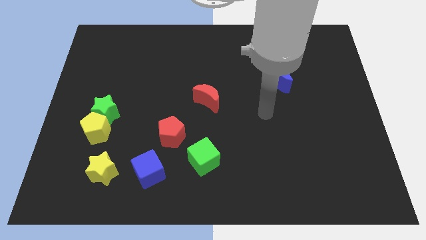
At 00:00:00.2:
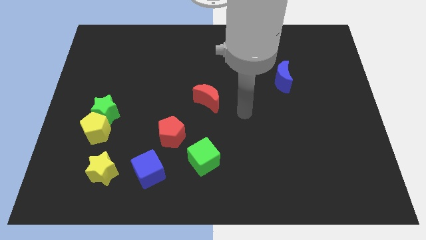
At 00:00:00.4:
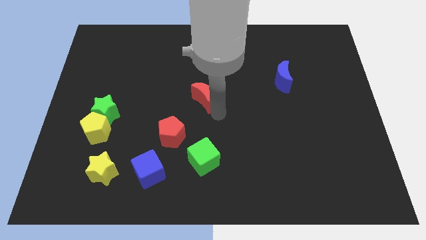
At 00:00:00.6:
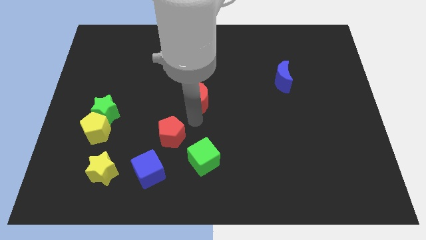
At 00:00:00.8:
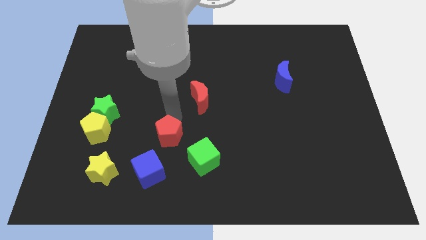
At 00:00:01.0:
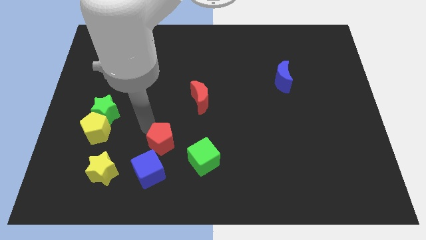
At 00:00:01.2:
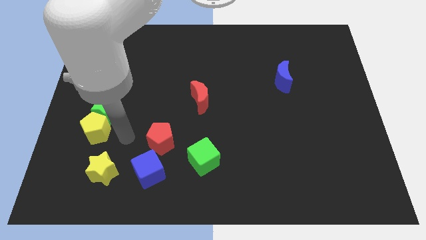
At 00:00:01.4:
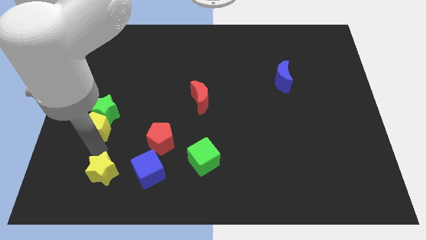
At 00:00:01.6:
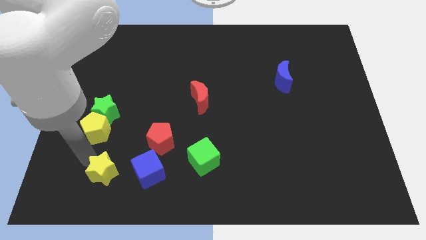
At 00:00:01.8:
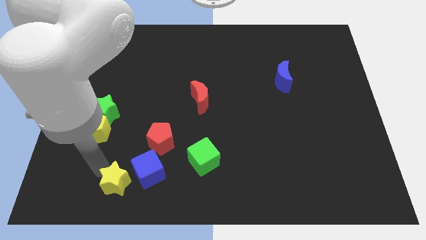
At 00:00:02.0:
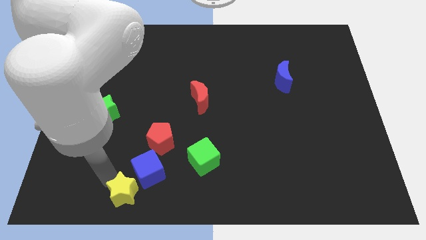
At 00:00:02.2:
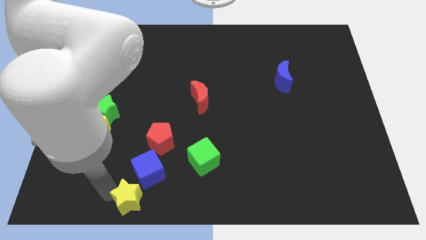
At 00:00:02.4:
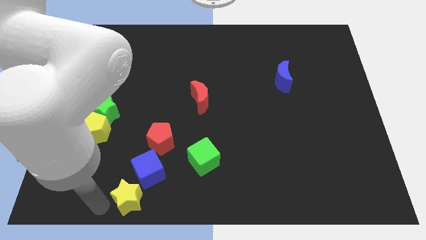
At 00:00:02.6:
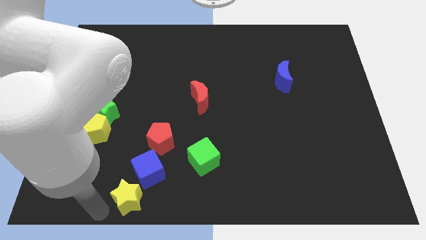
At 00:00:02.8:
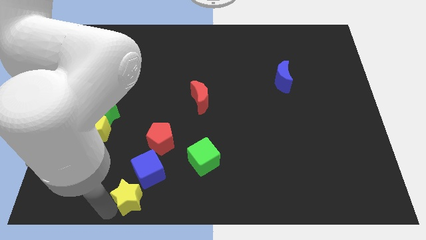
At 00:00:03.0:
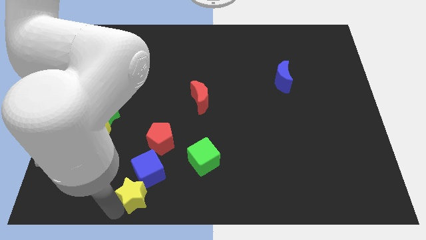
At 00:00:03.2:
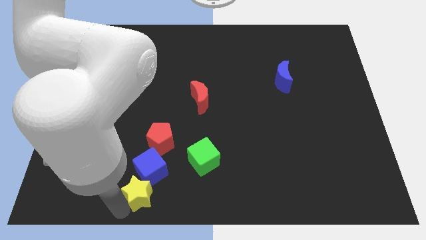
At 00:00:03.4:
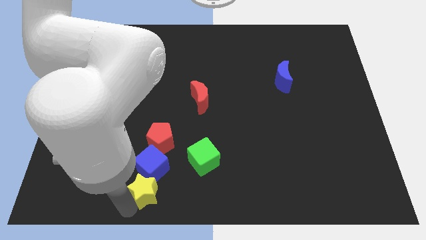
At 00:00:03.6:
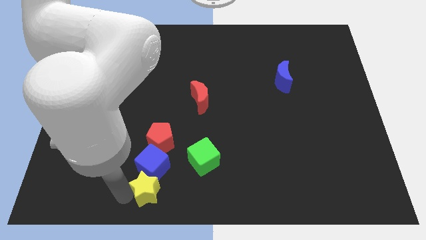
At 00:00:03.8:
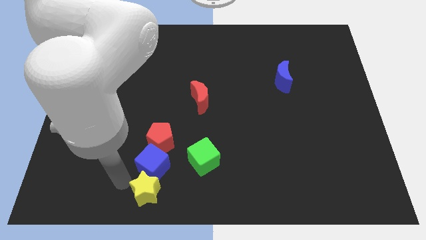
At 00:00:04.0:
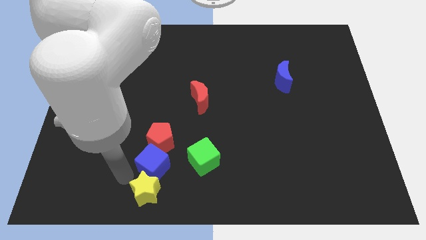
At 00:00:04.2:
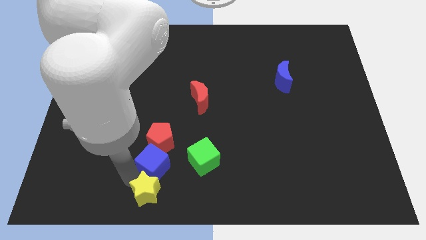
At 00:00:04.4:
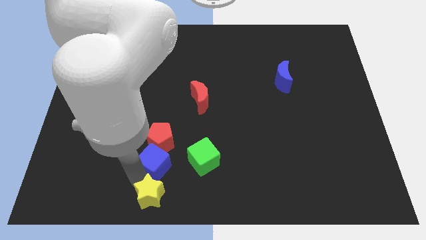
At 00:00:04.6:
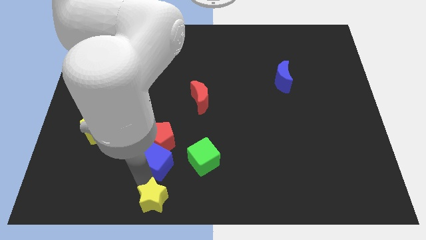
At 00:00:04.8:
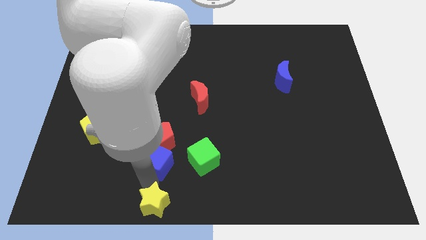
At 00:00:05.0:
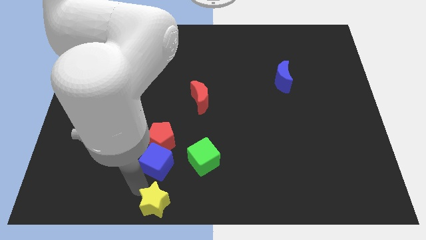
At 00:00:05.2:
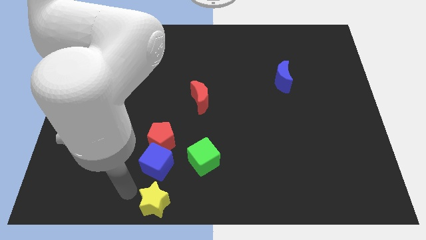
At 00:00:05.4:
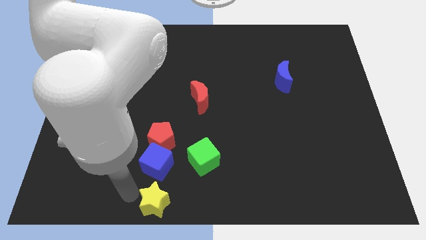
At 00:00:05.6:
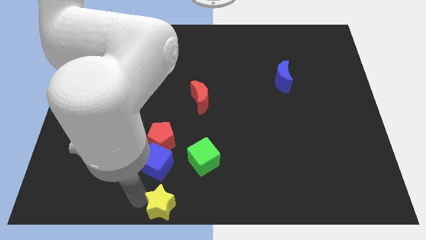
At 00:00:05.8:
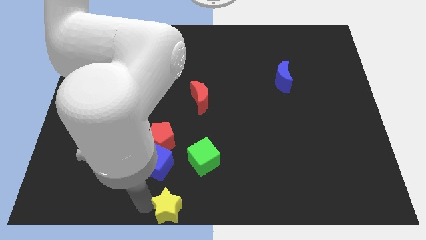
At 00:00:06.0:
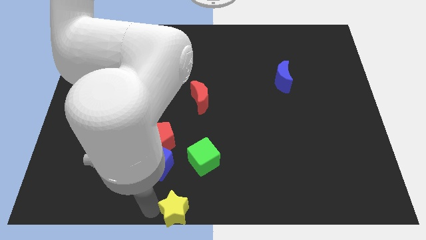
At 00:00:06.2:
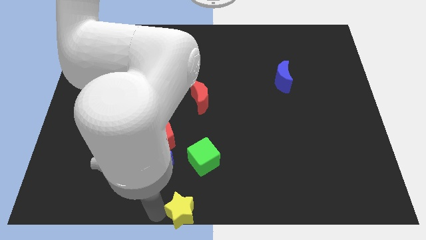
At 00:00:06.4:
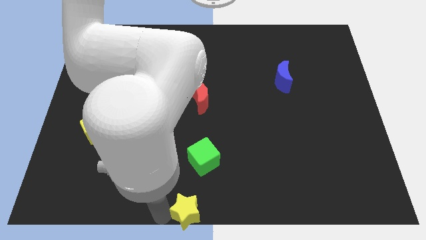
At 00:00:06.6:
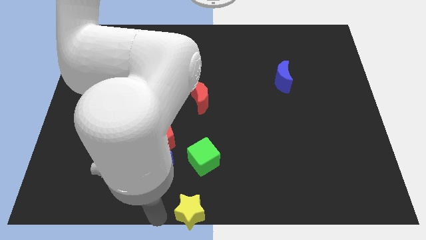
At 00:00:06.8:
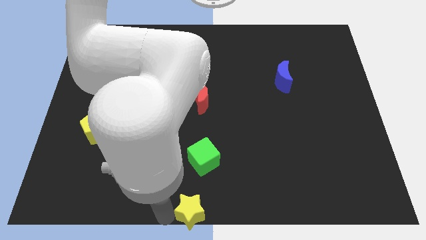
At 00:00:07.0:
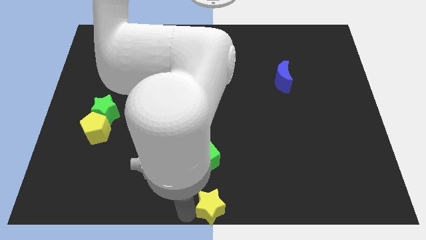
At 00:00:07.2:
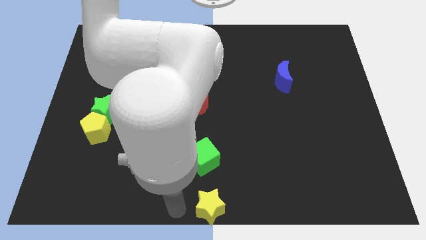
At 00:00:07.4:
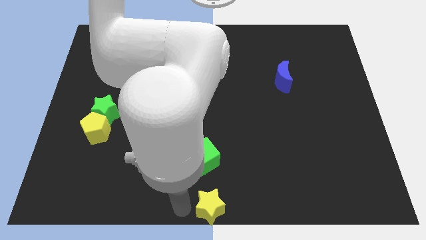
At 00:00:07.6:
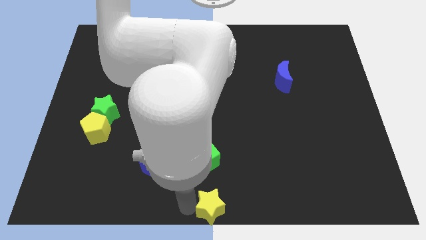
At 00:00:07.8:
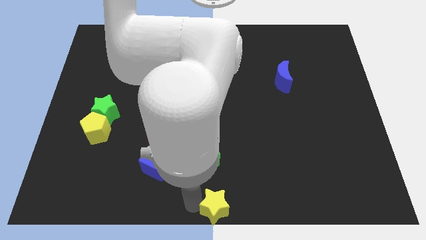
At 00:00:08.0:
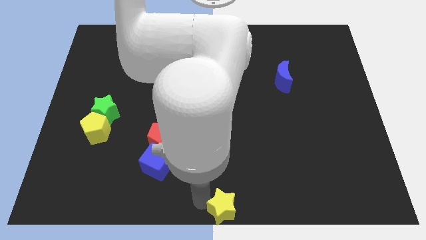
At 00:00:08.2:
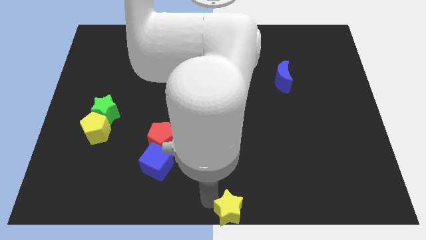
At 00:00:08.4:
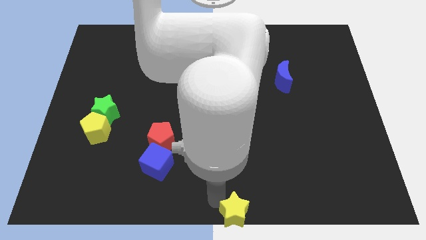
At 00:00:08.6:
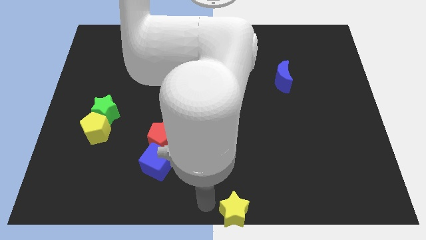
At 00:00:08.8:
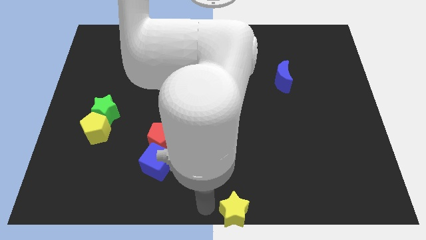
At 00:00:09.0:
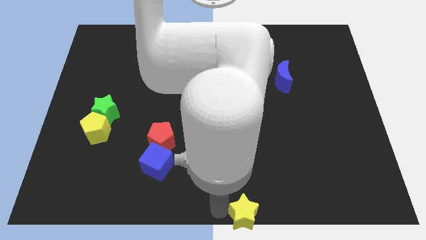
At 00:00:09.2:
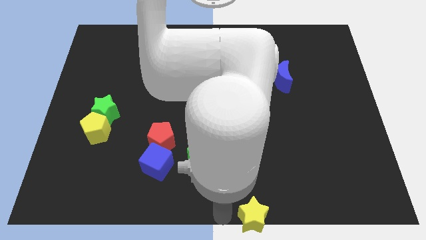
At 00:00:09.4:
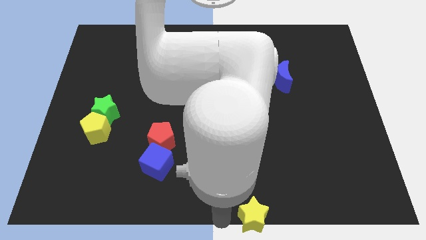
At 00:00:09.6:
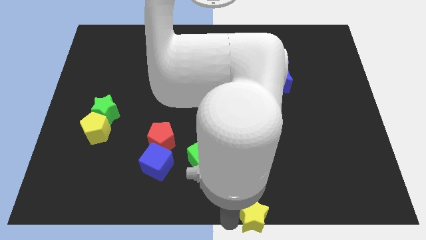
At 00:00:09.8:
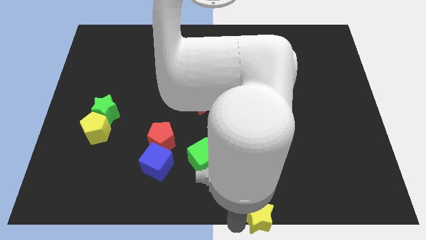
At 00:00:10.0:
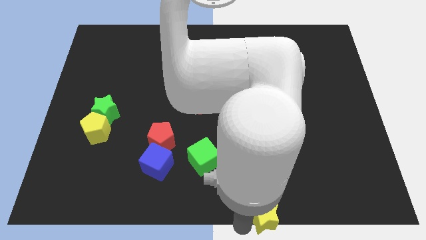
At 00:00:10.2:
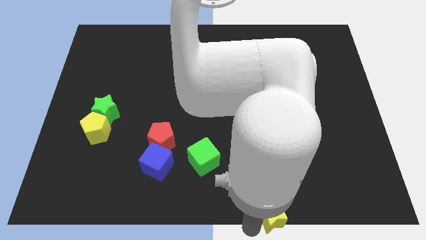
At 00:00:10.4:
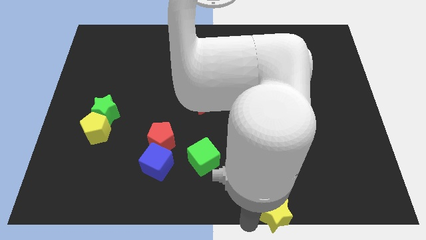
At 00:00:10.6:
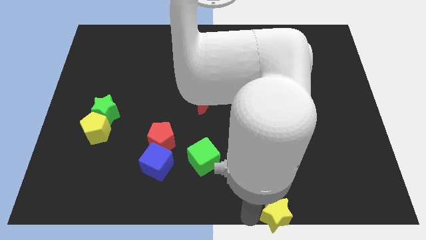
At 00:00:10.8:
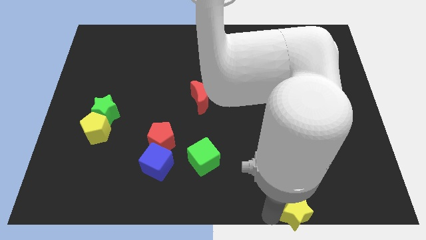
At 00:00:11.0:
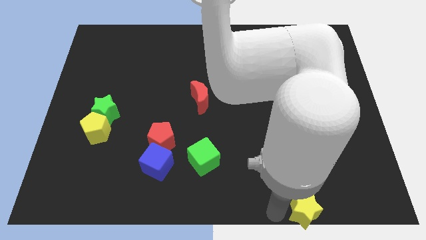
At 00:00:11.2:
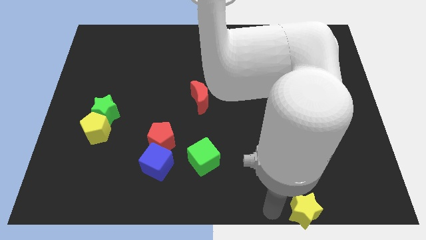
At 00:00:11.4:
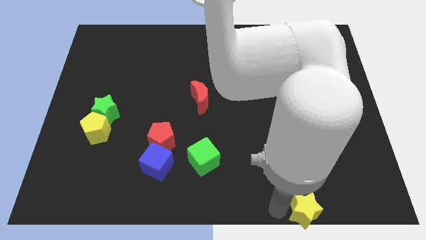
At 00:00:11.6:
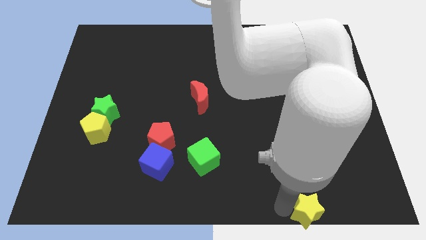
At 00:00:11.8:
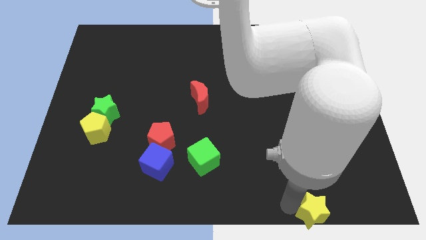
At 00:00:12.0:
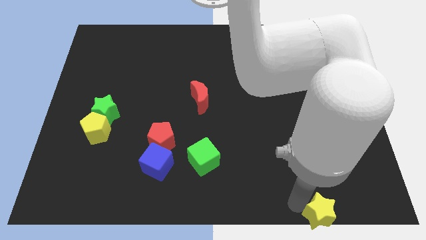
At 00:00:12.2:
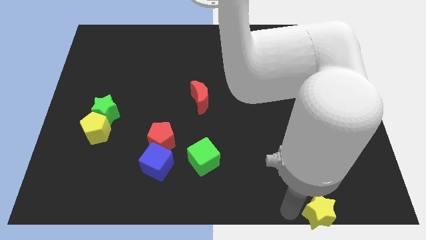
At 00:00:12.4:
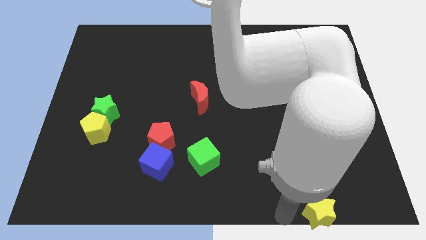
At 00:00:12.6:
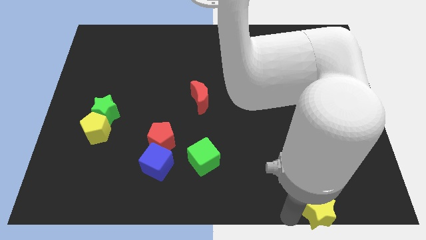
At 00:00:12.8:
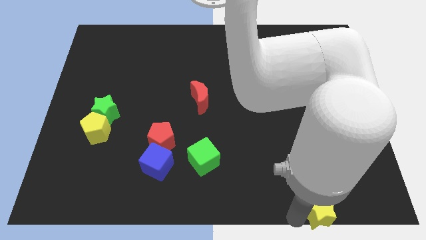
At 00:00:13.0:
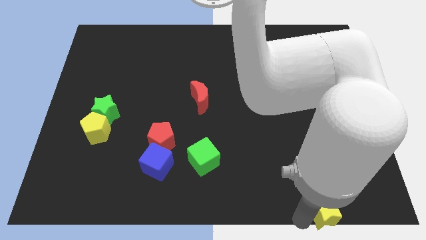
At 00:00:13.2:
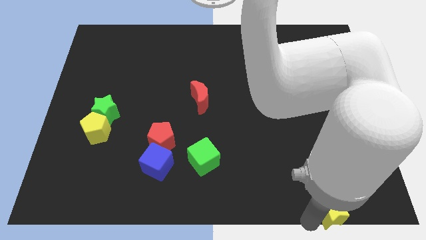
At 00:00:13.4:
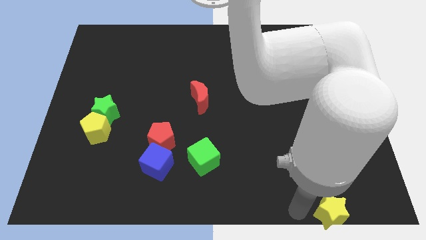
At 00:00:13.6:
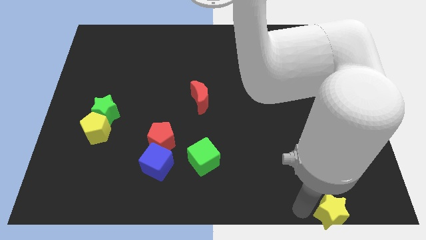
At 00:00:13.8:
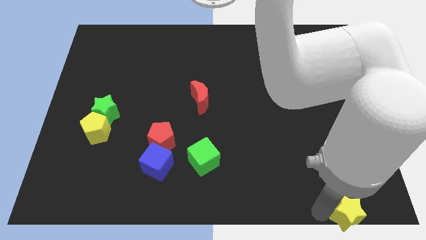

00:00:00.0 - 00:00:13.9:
put the yellow star to the bottom right
